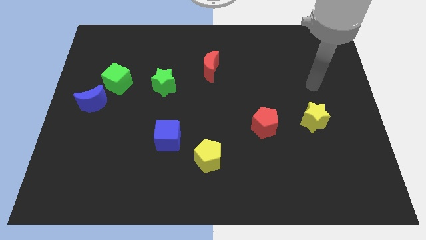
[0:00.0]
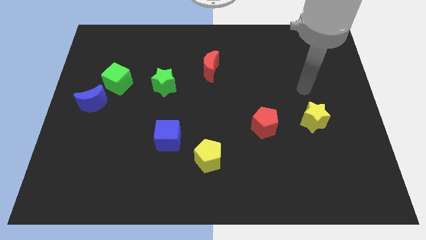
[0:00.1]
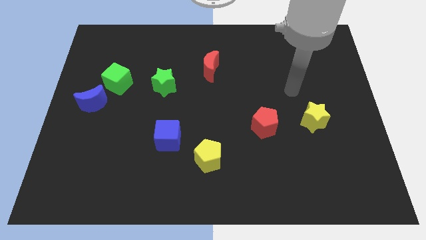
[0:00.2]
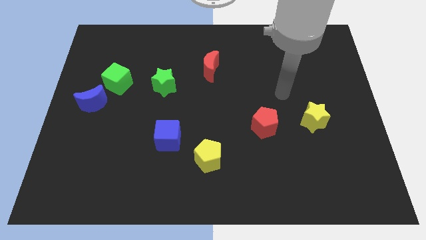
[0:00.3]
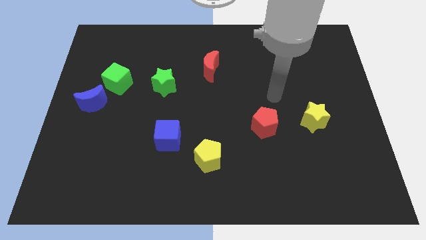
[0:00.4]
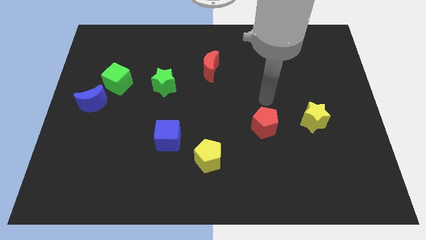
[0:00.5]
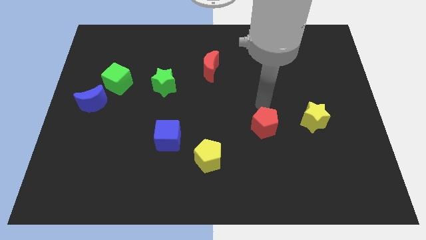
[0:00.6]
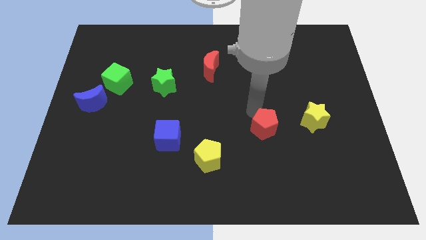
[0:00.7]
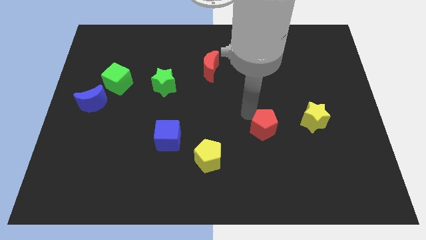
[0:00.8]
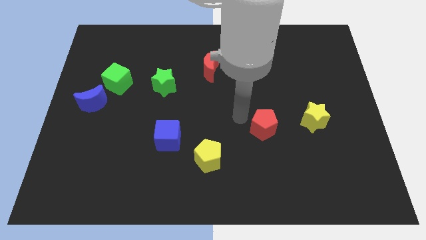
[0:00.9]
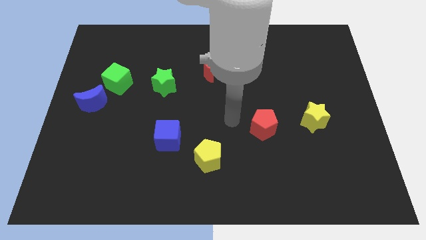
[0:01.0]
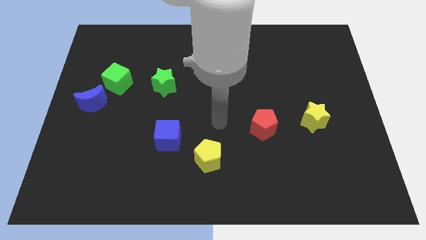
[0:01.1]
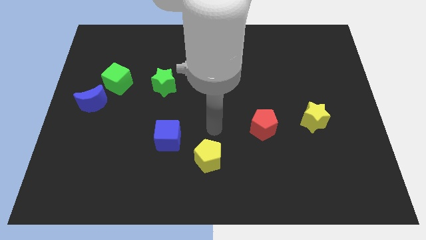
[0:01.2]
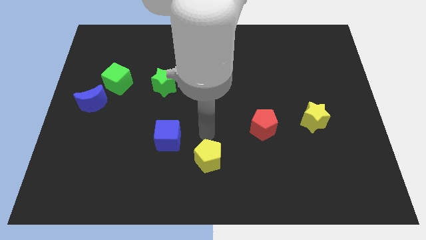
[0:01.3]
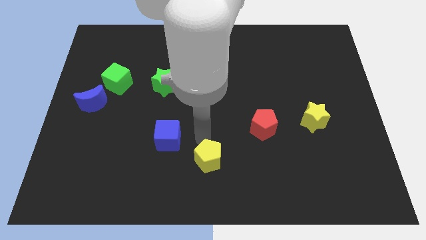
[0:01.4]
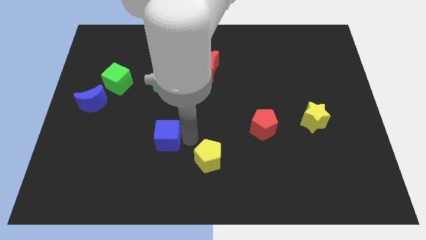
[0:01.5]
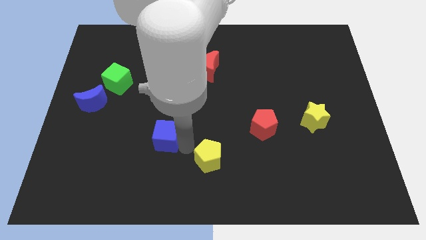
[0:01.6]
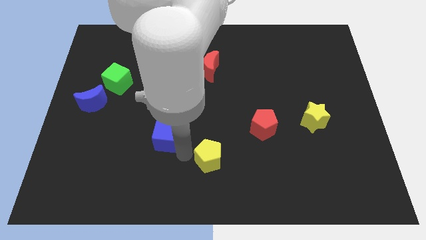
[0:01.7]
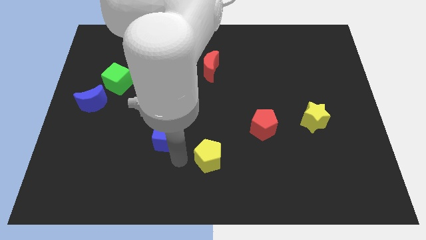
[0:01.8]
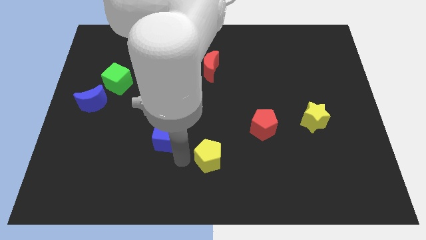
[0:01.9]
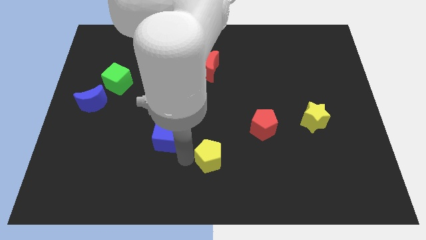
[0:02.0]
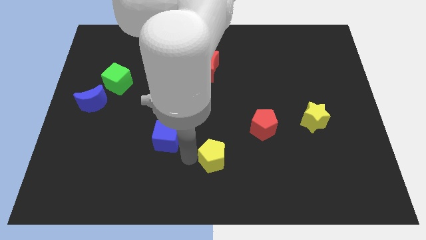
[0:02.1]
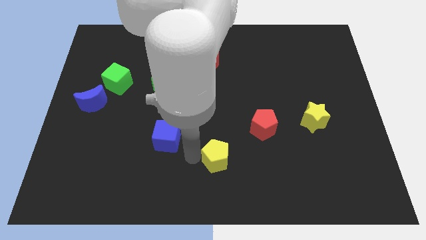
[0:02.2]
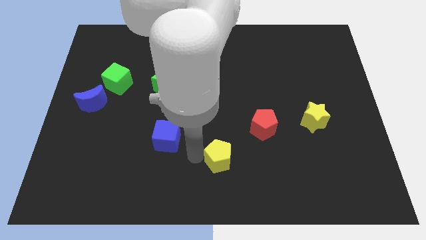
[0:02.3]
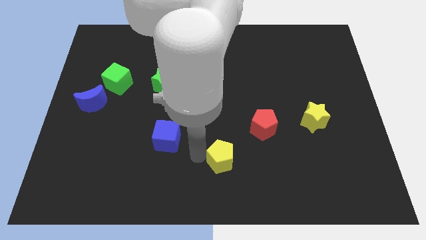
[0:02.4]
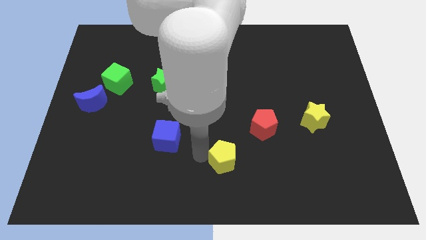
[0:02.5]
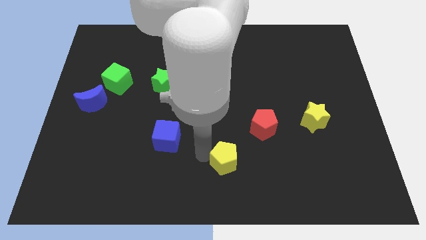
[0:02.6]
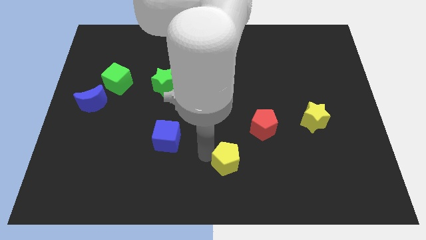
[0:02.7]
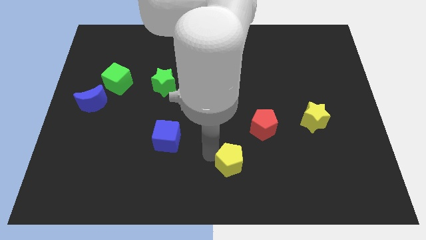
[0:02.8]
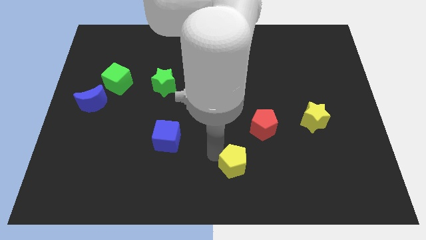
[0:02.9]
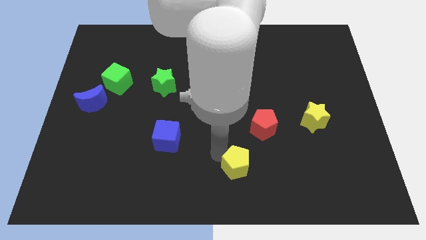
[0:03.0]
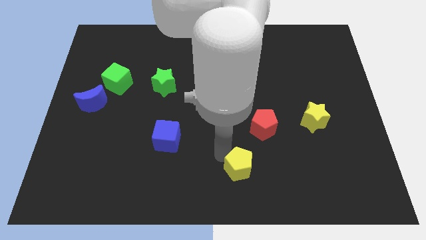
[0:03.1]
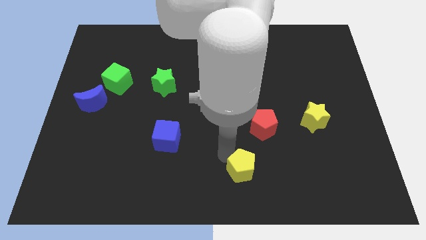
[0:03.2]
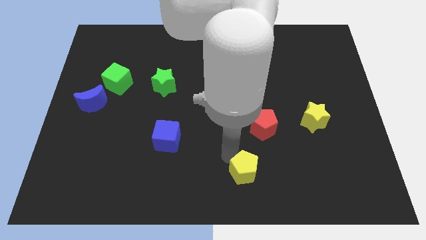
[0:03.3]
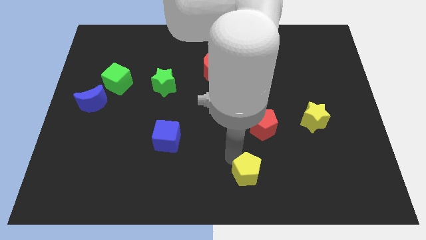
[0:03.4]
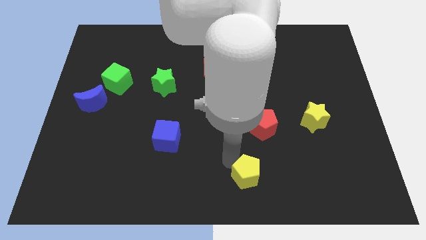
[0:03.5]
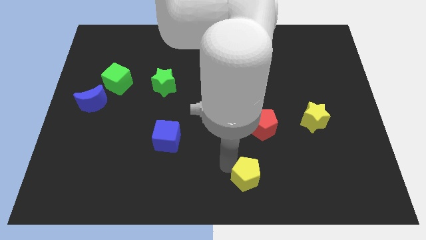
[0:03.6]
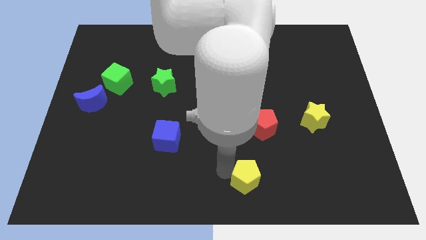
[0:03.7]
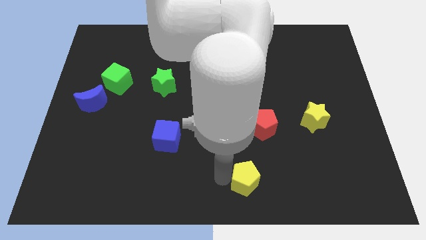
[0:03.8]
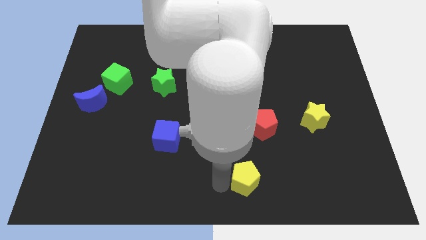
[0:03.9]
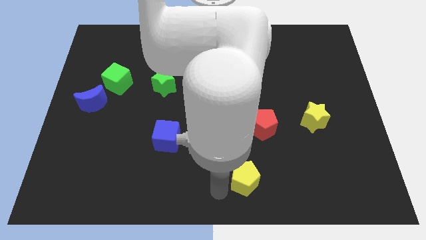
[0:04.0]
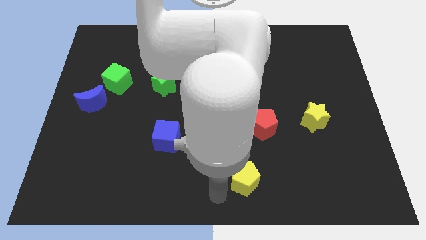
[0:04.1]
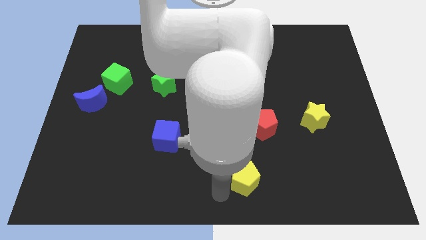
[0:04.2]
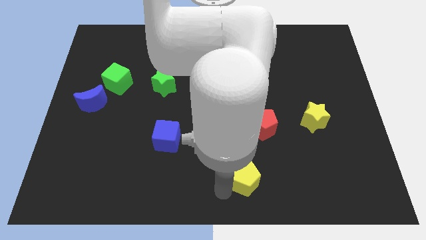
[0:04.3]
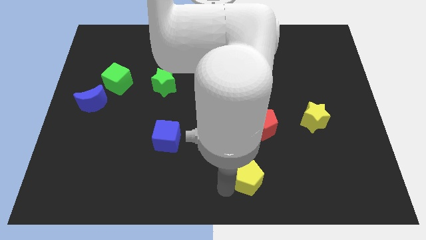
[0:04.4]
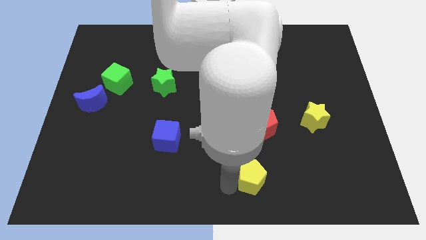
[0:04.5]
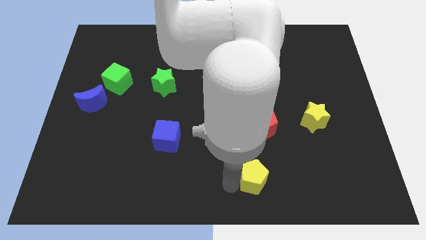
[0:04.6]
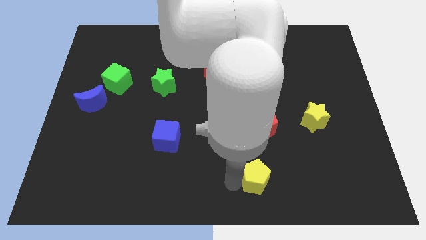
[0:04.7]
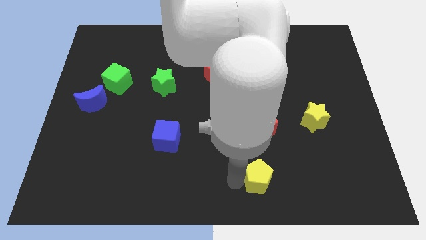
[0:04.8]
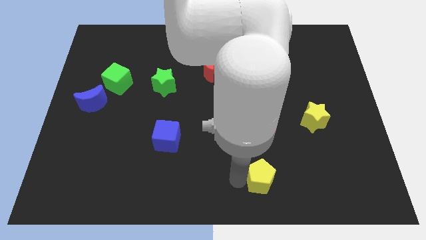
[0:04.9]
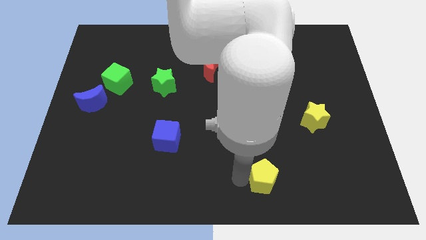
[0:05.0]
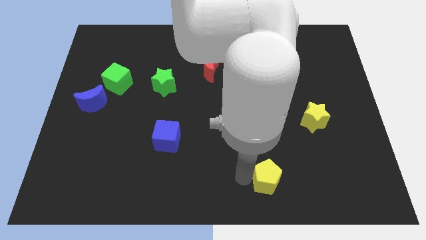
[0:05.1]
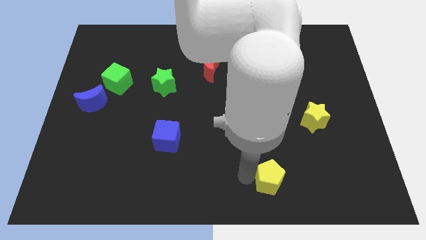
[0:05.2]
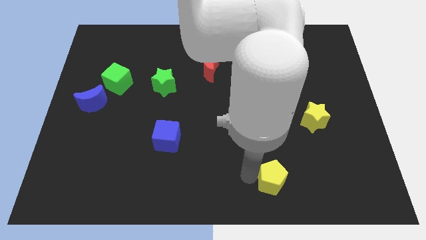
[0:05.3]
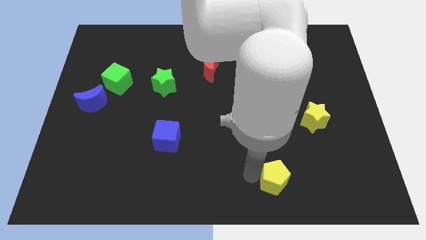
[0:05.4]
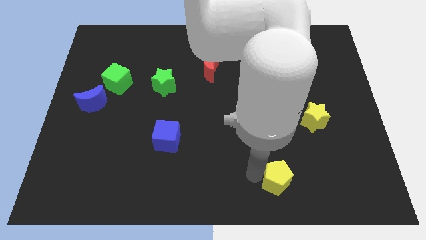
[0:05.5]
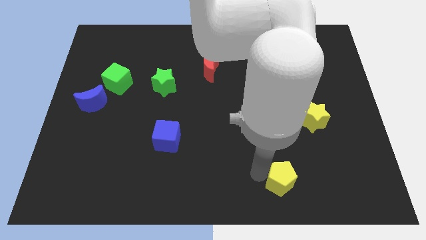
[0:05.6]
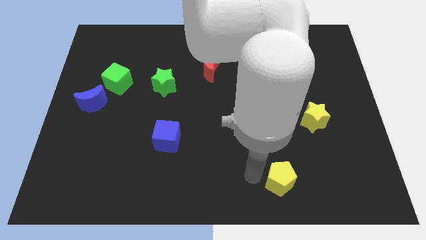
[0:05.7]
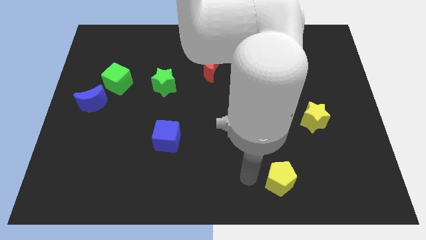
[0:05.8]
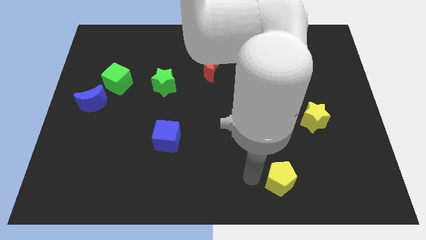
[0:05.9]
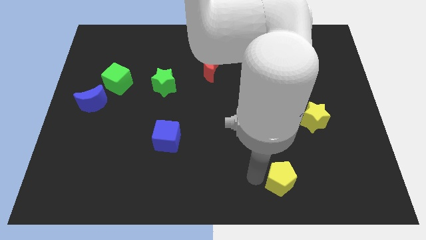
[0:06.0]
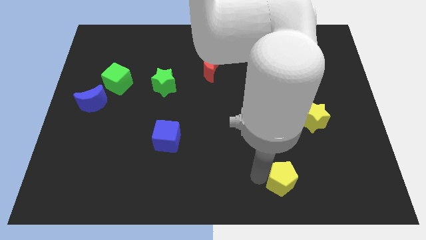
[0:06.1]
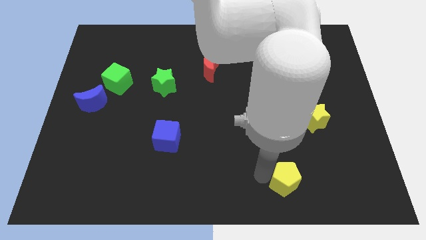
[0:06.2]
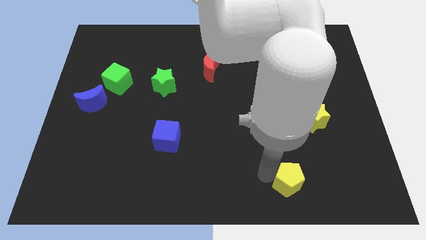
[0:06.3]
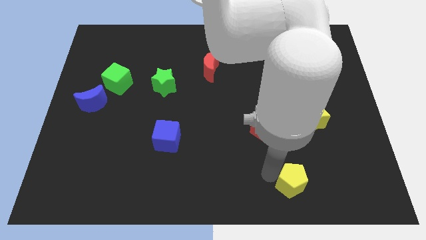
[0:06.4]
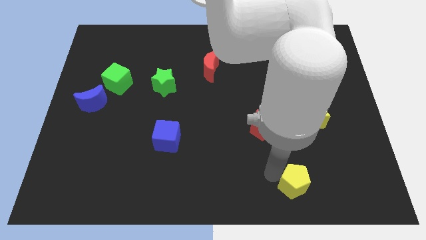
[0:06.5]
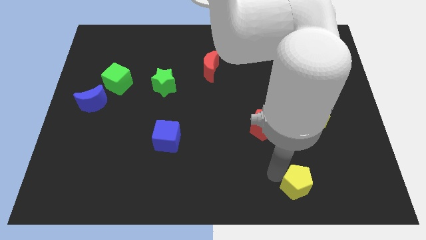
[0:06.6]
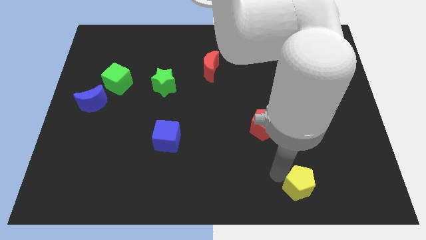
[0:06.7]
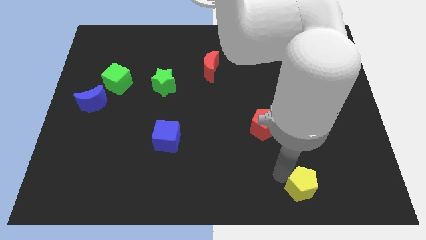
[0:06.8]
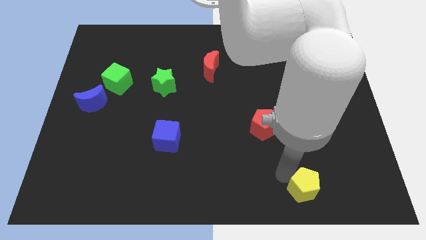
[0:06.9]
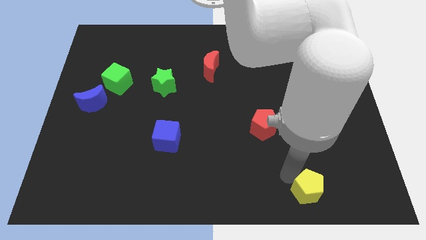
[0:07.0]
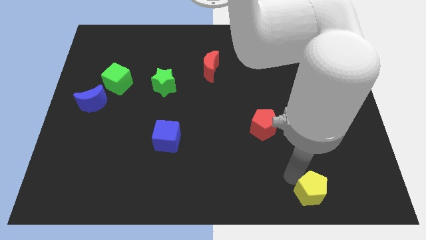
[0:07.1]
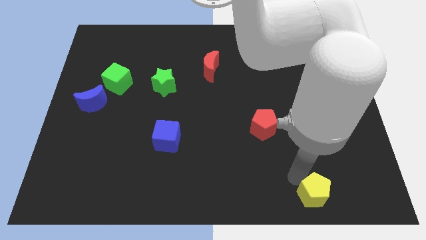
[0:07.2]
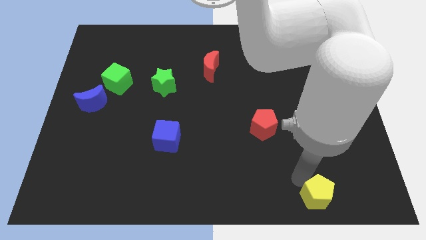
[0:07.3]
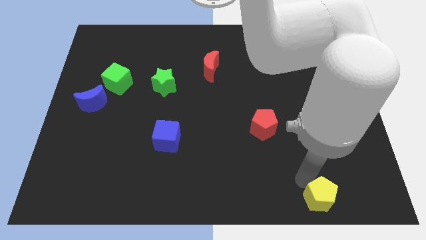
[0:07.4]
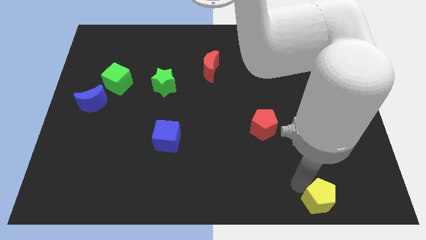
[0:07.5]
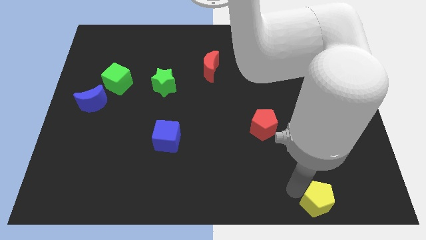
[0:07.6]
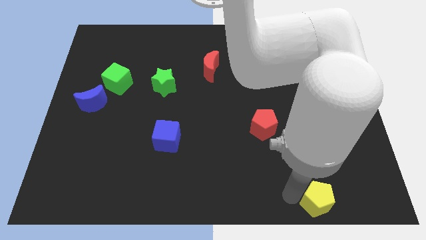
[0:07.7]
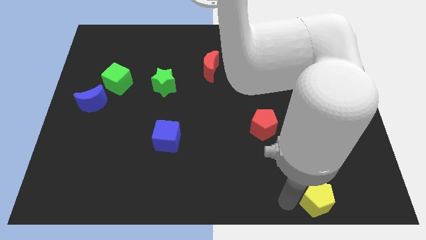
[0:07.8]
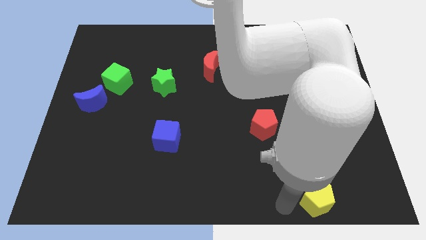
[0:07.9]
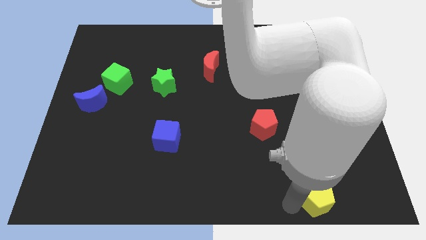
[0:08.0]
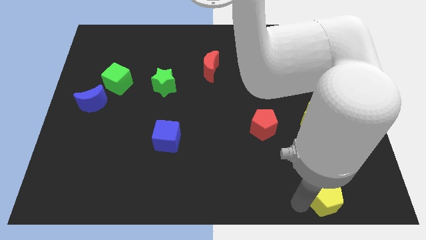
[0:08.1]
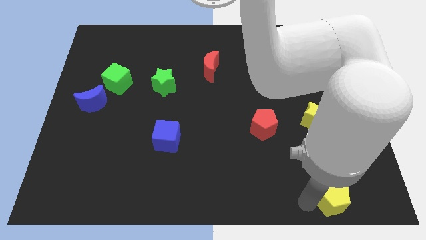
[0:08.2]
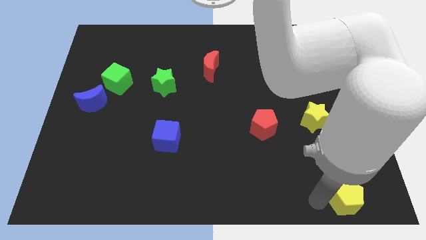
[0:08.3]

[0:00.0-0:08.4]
slide the yellow pentagon to the bottom right
